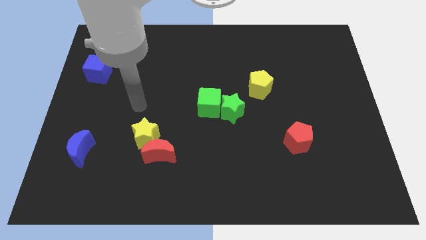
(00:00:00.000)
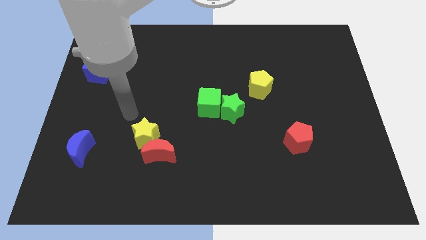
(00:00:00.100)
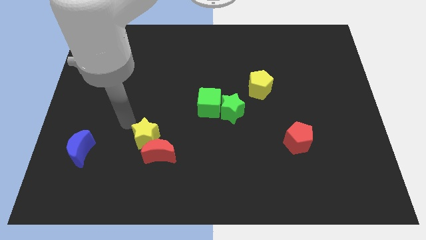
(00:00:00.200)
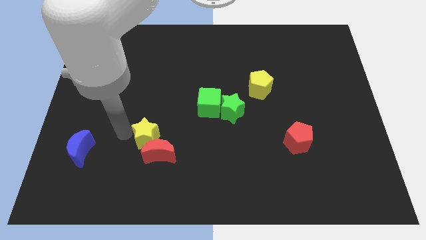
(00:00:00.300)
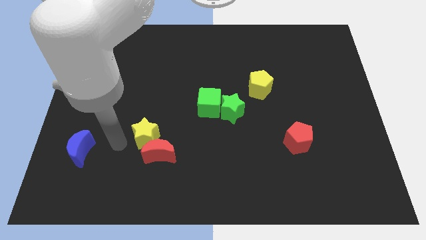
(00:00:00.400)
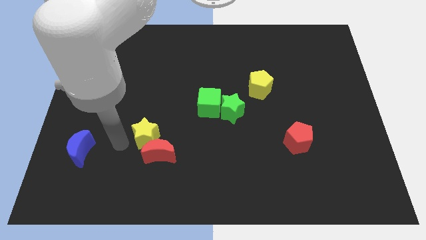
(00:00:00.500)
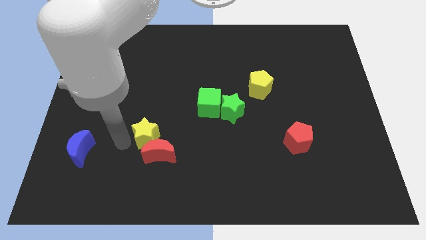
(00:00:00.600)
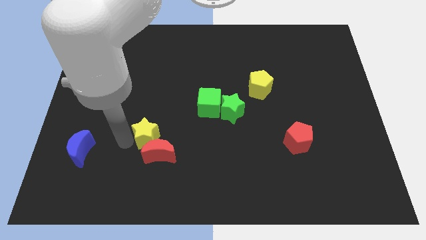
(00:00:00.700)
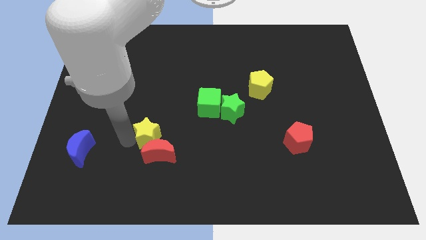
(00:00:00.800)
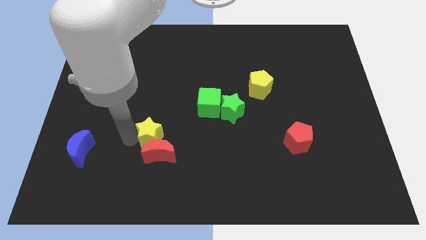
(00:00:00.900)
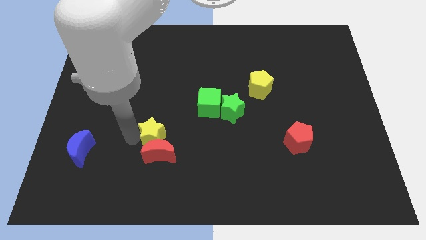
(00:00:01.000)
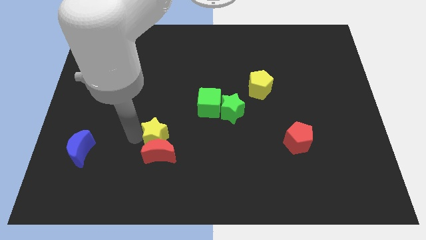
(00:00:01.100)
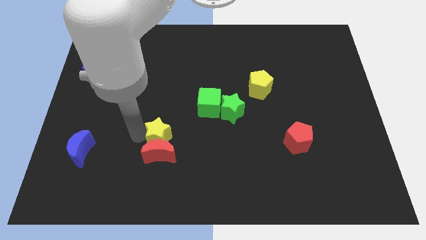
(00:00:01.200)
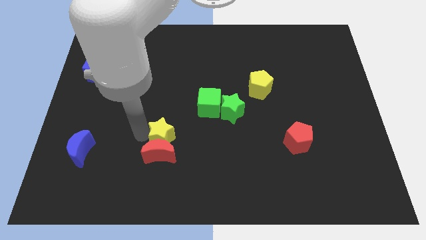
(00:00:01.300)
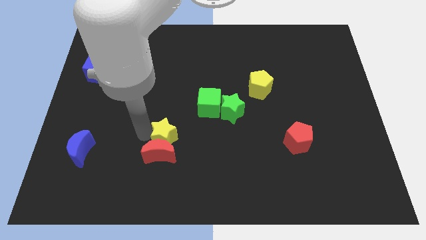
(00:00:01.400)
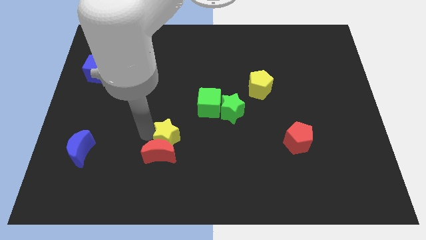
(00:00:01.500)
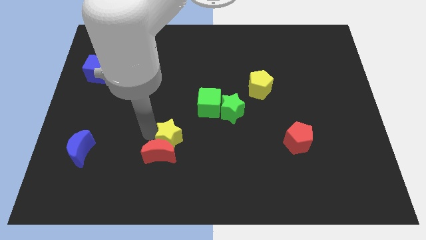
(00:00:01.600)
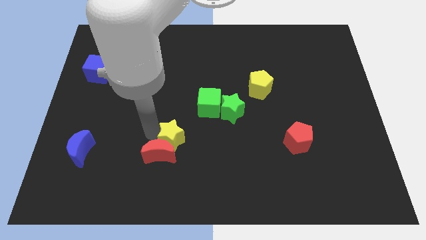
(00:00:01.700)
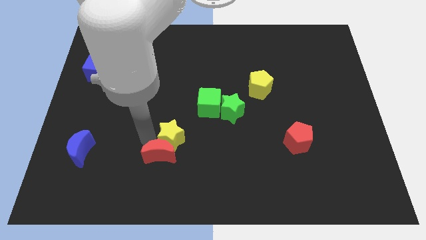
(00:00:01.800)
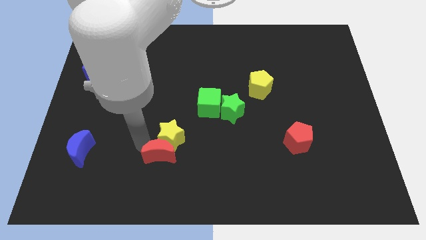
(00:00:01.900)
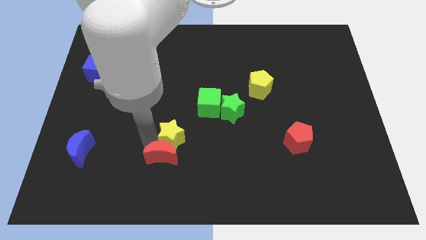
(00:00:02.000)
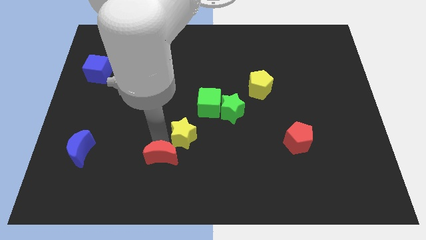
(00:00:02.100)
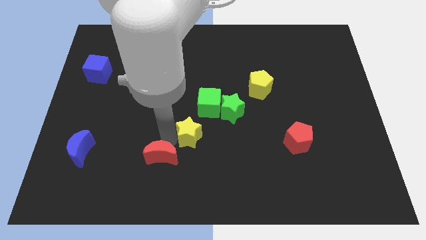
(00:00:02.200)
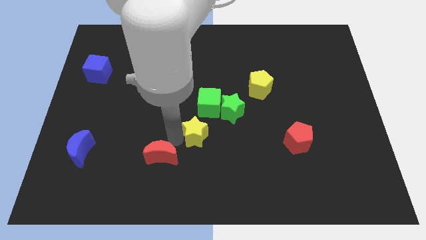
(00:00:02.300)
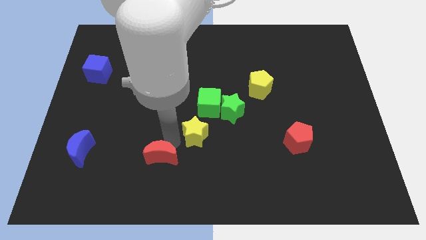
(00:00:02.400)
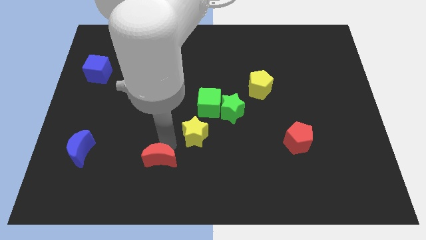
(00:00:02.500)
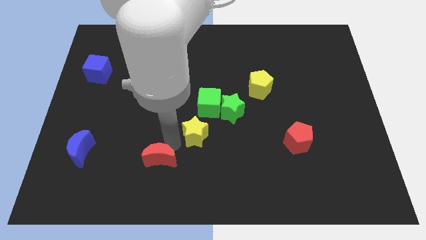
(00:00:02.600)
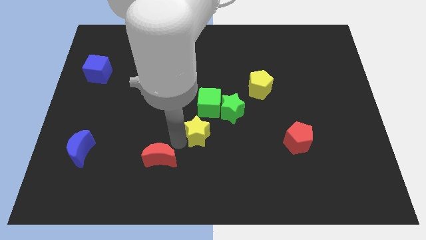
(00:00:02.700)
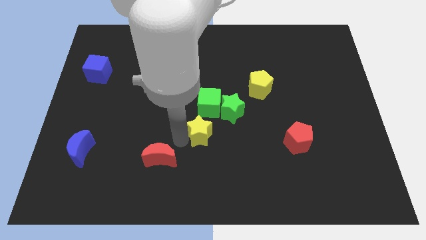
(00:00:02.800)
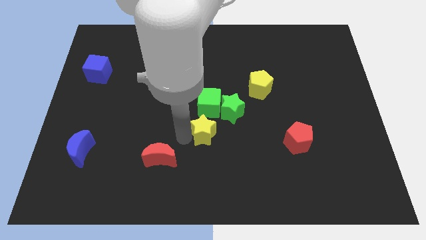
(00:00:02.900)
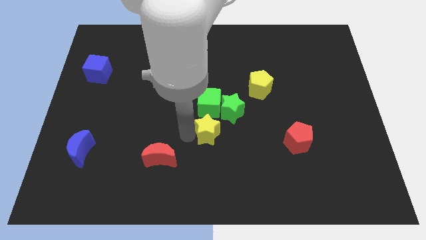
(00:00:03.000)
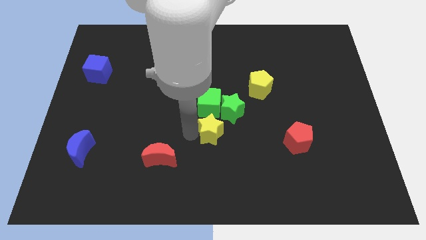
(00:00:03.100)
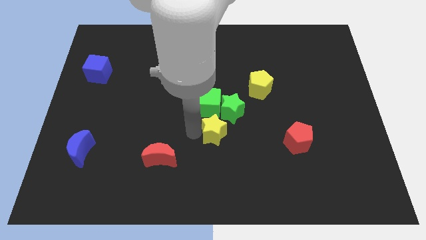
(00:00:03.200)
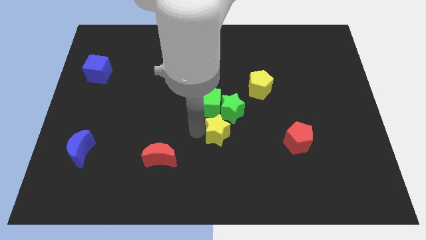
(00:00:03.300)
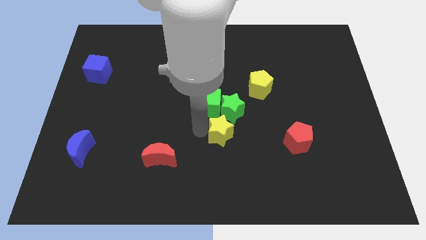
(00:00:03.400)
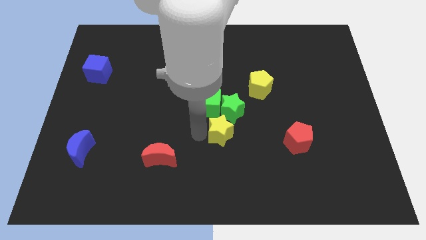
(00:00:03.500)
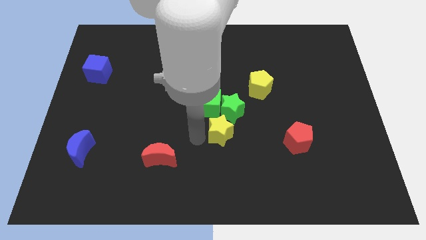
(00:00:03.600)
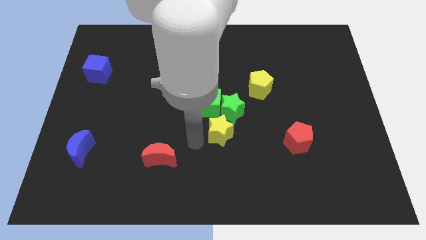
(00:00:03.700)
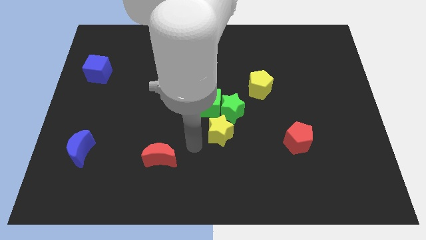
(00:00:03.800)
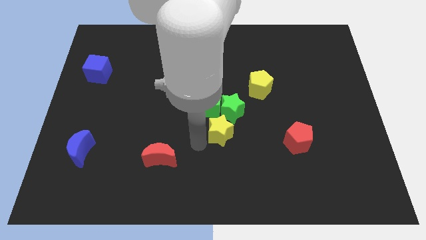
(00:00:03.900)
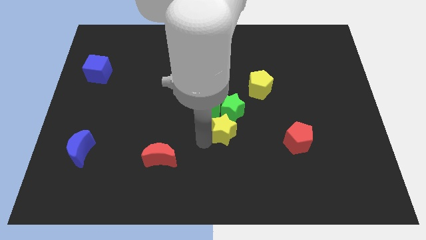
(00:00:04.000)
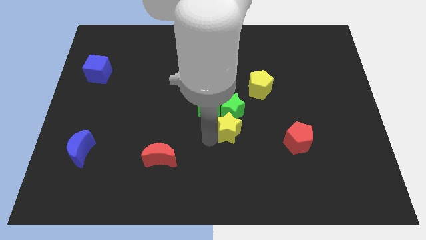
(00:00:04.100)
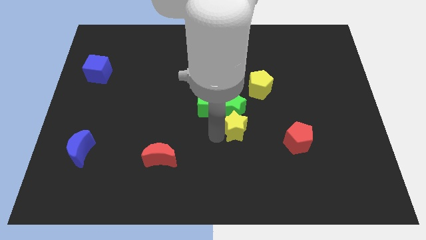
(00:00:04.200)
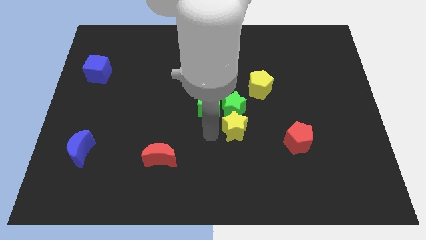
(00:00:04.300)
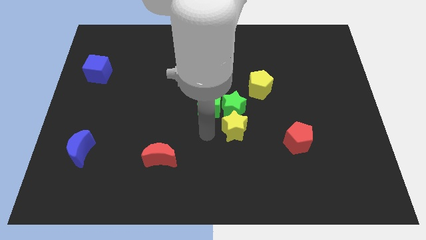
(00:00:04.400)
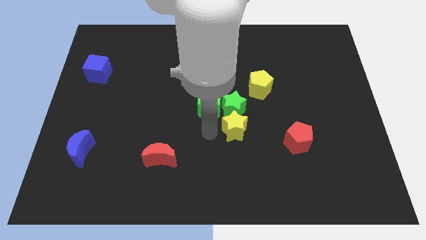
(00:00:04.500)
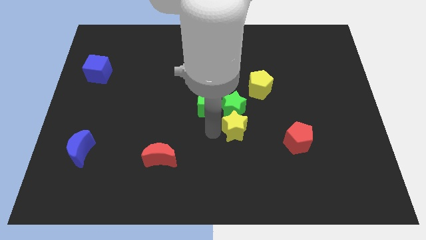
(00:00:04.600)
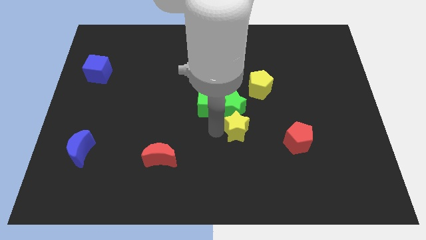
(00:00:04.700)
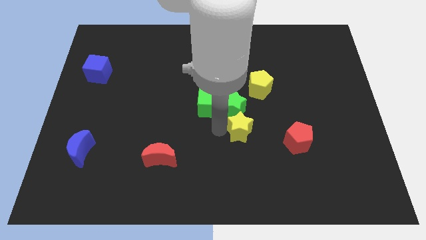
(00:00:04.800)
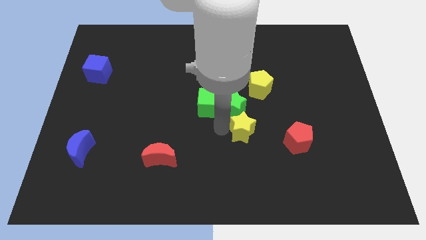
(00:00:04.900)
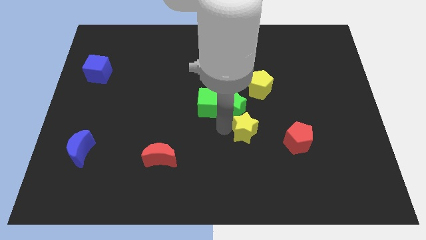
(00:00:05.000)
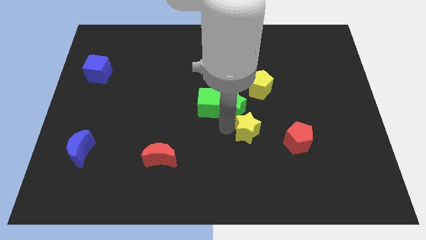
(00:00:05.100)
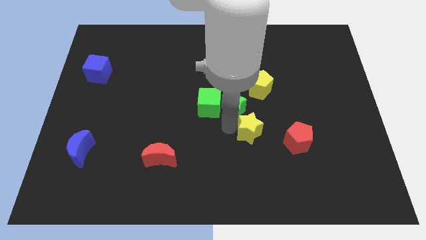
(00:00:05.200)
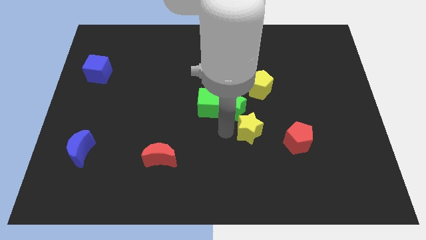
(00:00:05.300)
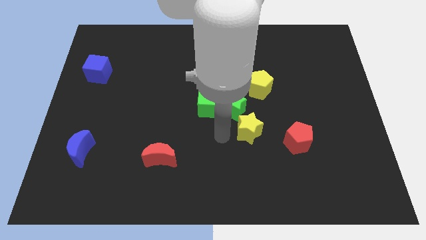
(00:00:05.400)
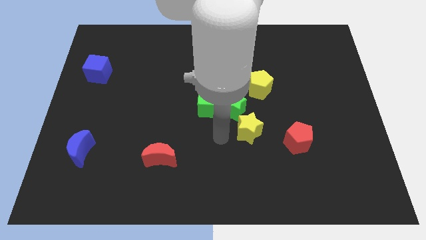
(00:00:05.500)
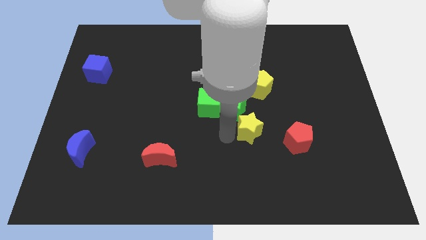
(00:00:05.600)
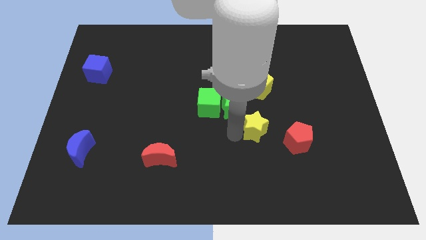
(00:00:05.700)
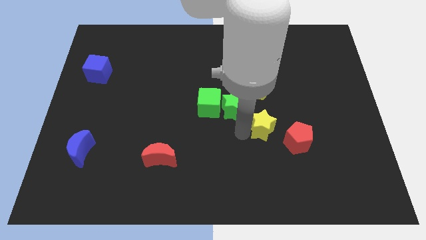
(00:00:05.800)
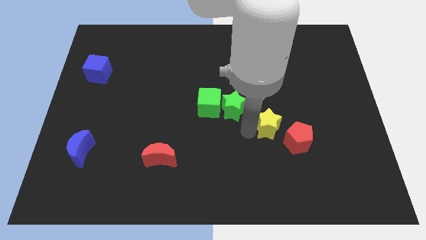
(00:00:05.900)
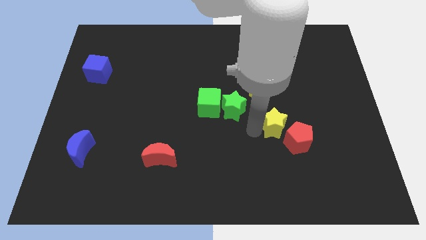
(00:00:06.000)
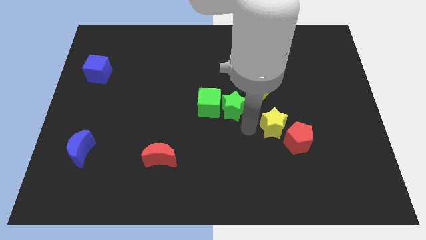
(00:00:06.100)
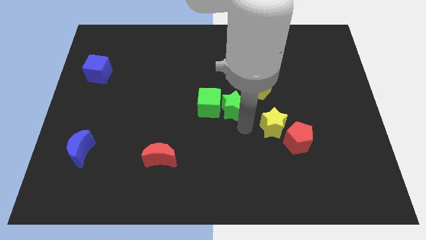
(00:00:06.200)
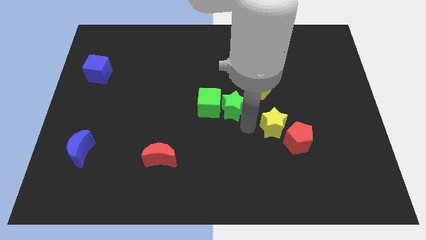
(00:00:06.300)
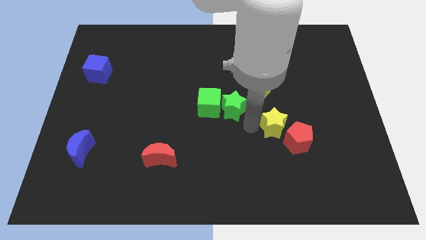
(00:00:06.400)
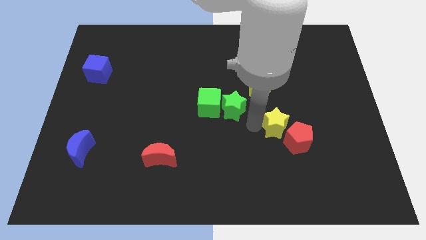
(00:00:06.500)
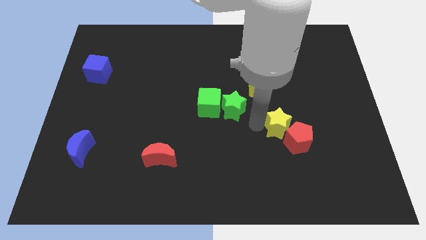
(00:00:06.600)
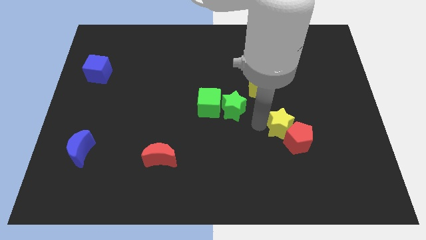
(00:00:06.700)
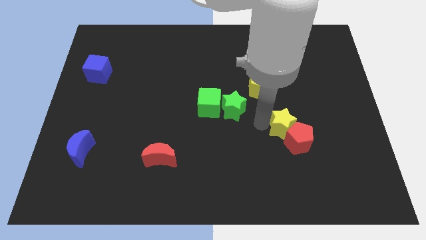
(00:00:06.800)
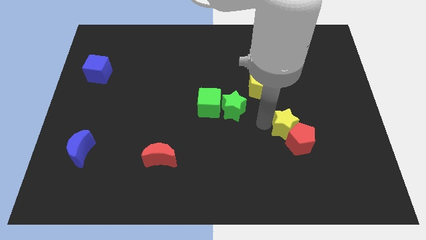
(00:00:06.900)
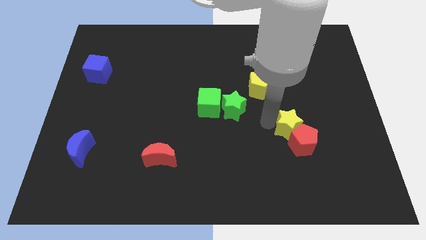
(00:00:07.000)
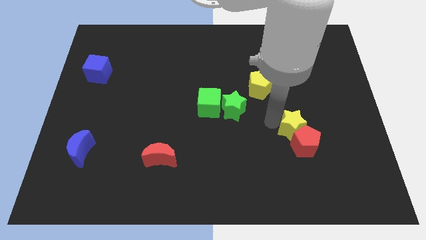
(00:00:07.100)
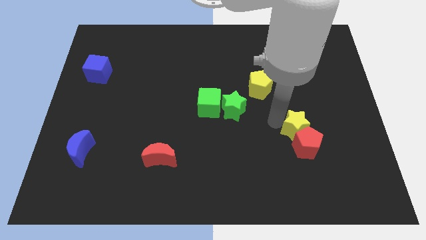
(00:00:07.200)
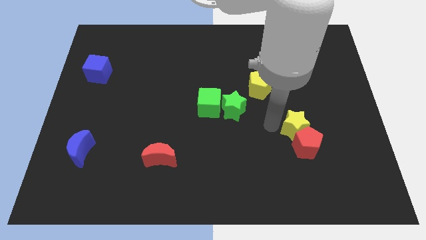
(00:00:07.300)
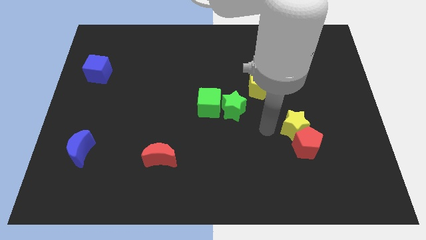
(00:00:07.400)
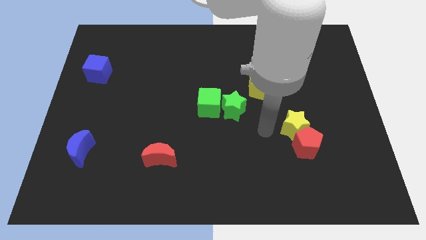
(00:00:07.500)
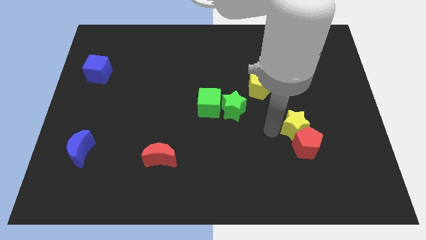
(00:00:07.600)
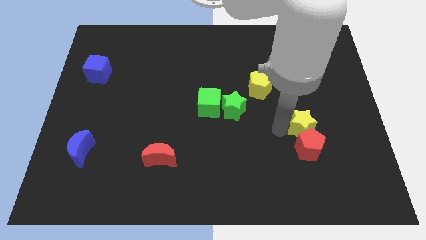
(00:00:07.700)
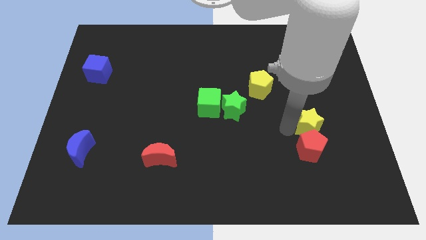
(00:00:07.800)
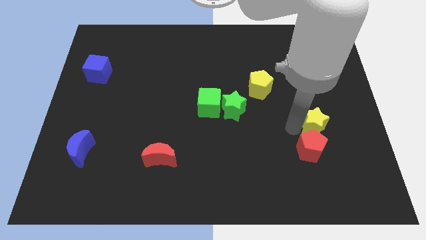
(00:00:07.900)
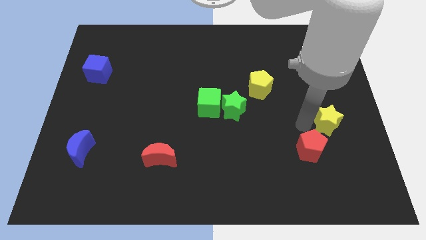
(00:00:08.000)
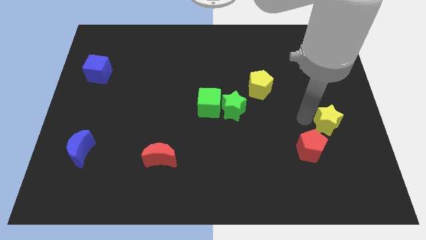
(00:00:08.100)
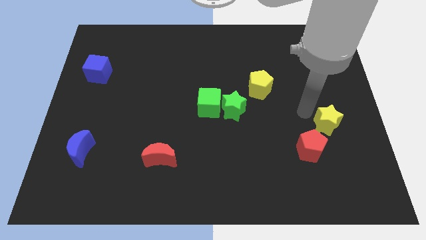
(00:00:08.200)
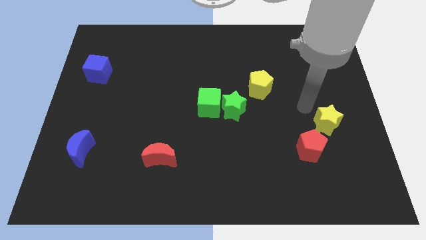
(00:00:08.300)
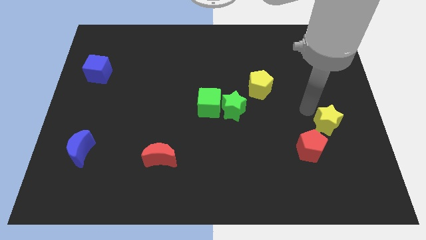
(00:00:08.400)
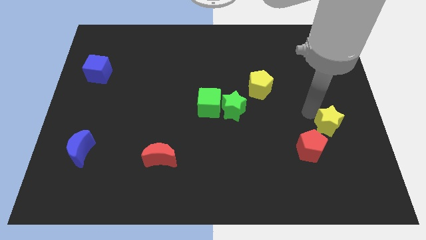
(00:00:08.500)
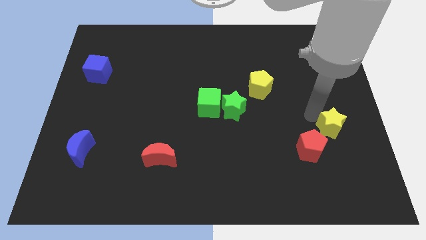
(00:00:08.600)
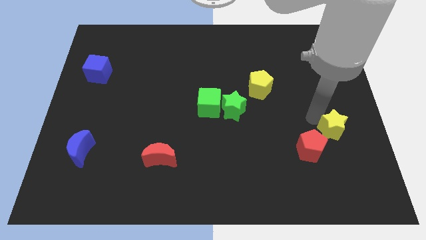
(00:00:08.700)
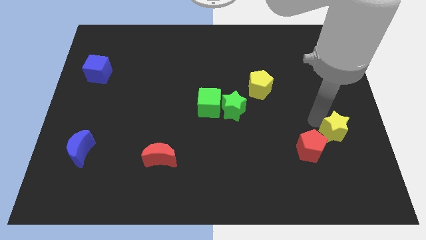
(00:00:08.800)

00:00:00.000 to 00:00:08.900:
move the yellow star to the right side of the red pentagon
